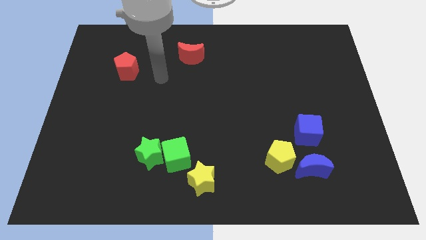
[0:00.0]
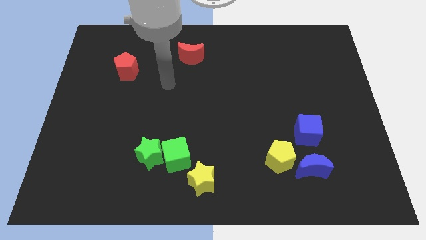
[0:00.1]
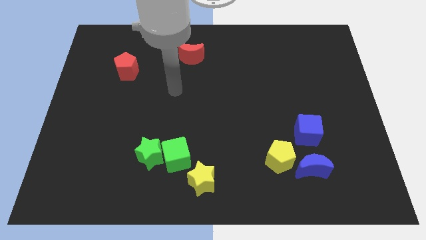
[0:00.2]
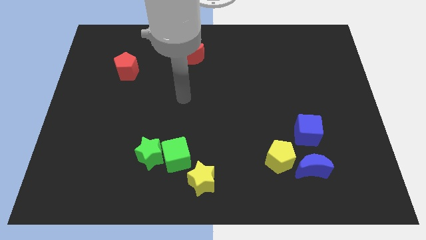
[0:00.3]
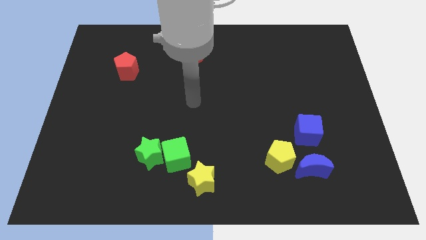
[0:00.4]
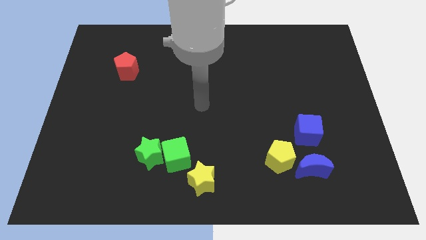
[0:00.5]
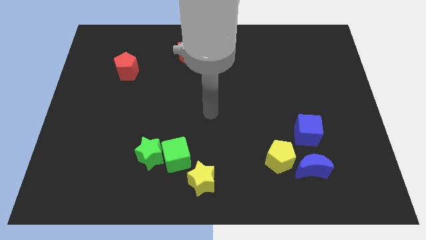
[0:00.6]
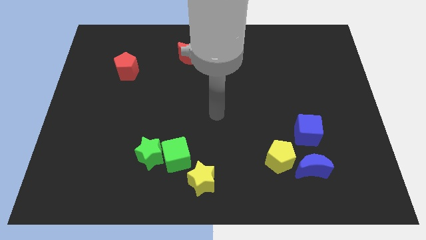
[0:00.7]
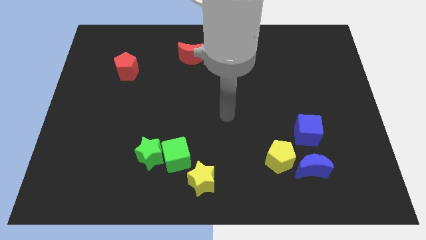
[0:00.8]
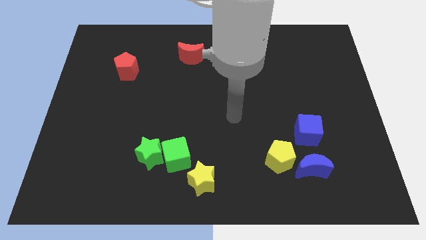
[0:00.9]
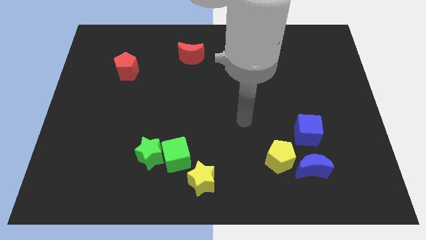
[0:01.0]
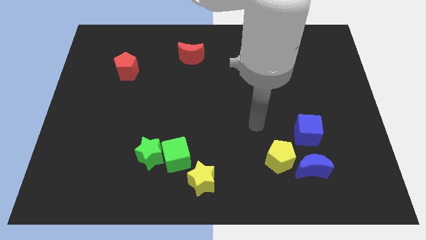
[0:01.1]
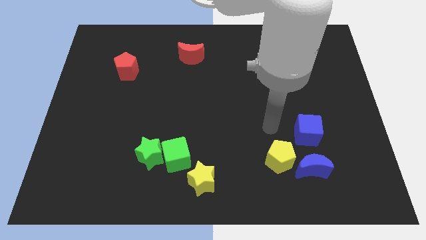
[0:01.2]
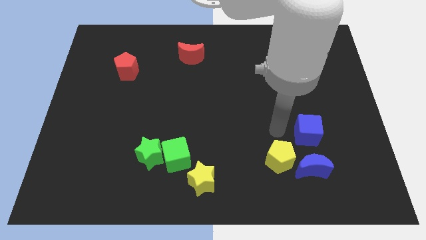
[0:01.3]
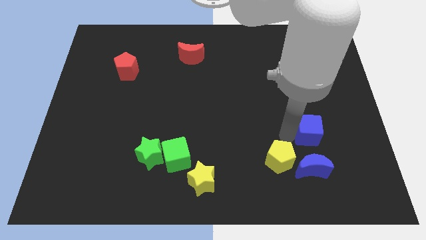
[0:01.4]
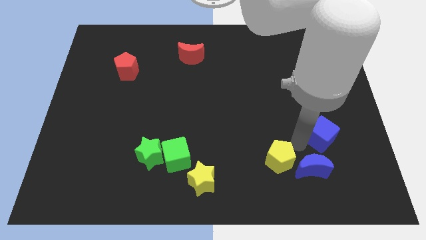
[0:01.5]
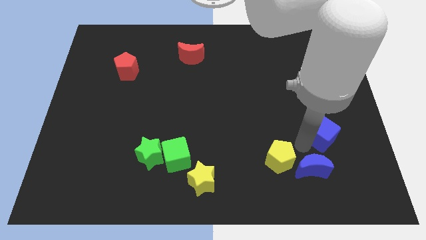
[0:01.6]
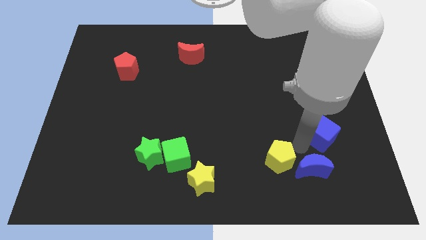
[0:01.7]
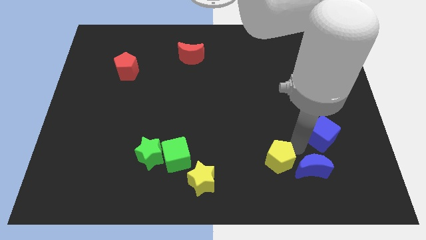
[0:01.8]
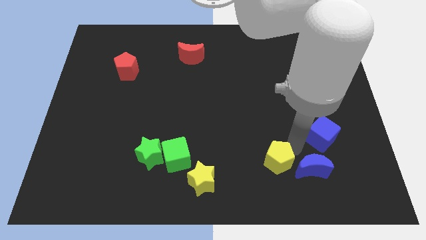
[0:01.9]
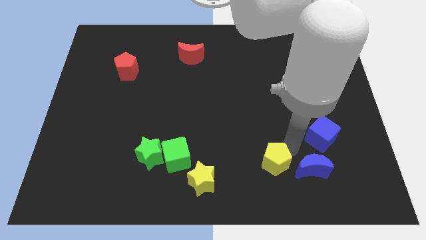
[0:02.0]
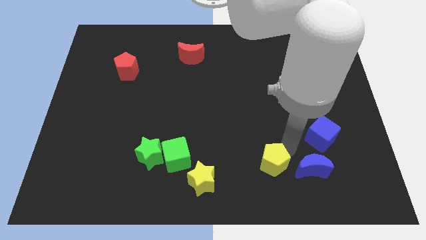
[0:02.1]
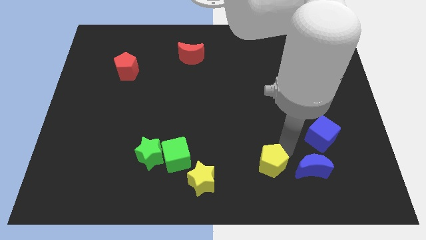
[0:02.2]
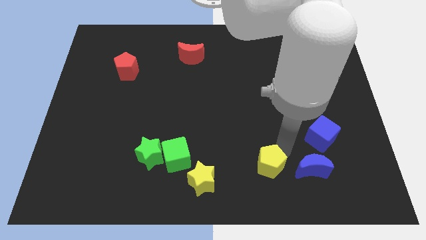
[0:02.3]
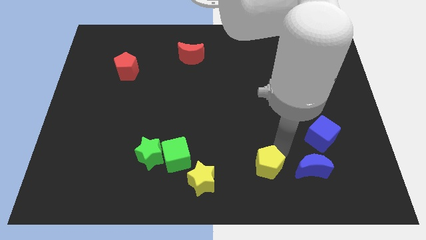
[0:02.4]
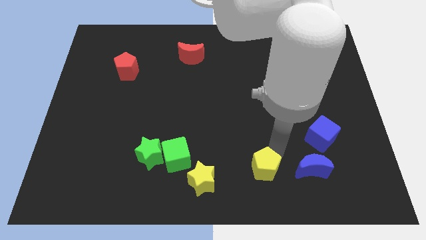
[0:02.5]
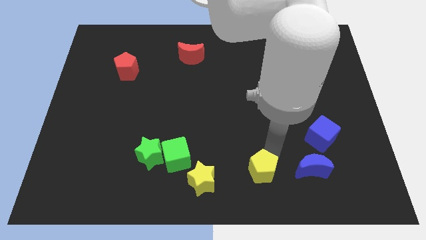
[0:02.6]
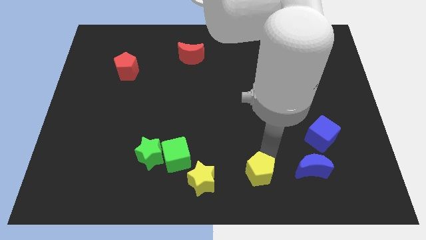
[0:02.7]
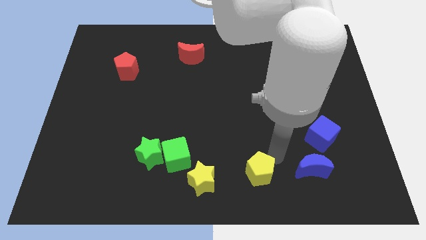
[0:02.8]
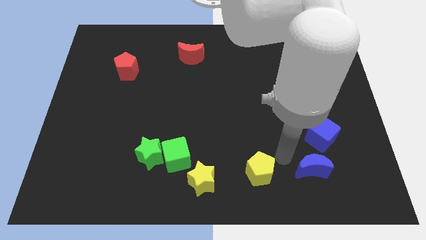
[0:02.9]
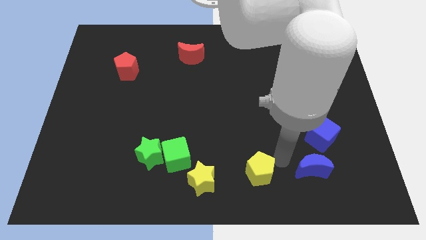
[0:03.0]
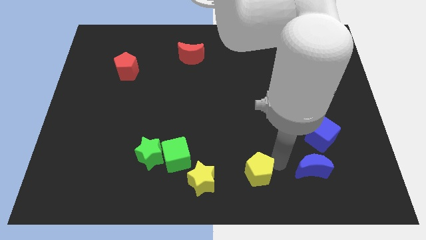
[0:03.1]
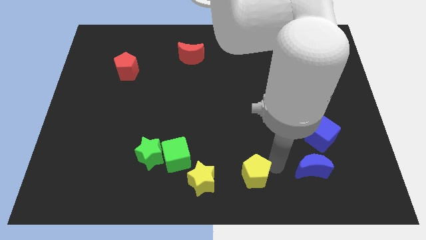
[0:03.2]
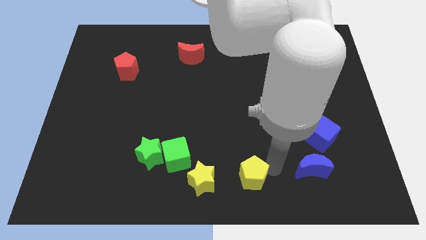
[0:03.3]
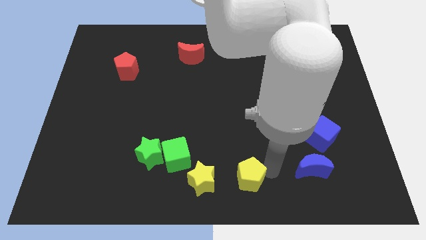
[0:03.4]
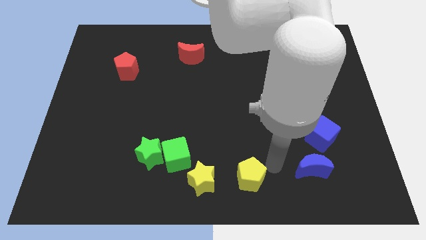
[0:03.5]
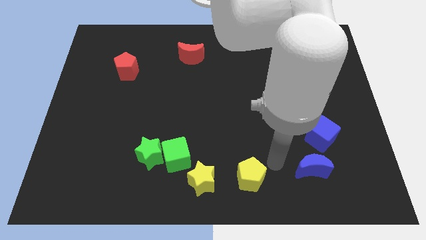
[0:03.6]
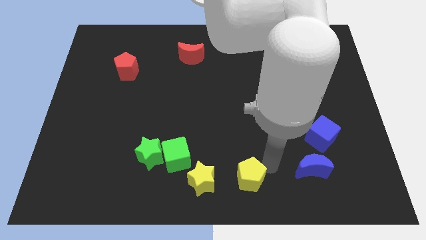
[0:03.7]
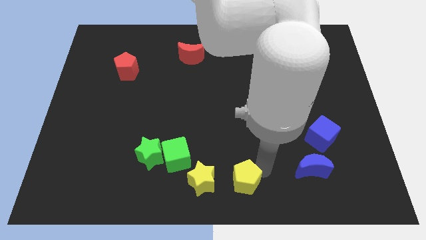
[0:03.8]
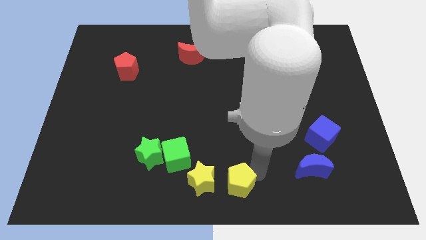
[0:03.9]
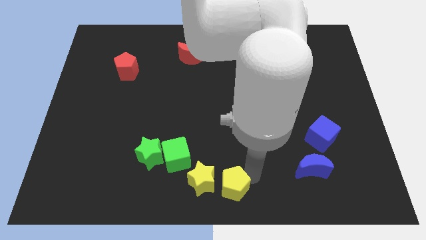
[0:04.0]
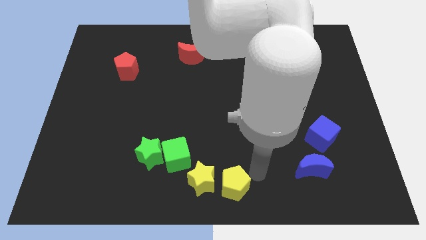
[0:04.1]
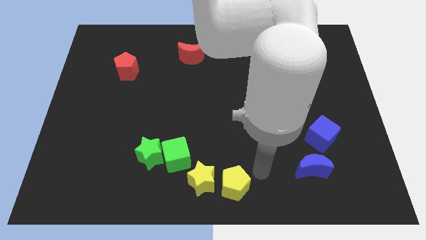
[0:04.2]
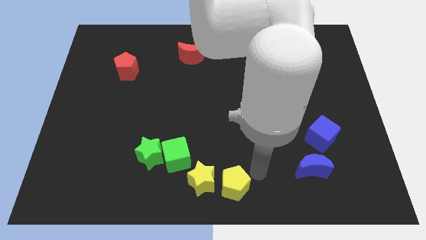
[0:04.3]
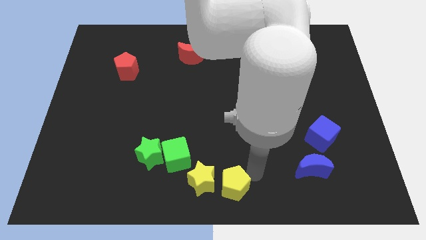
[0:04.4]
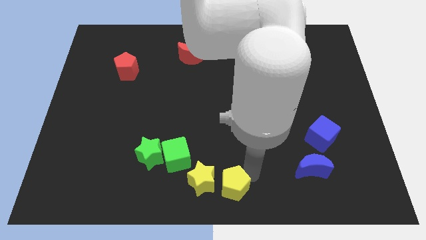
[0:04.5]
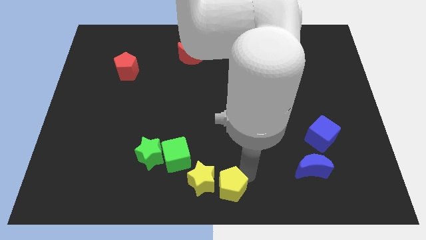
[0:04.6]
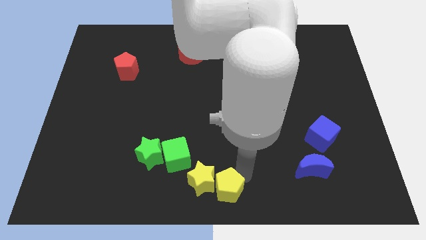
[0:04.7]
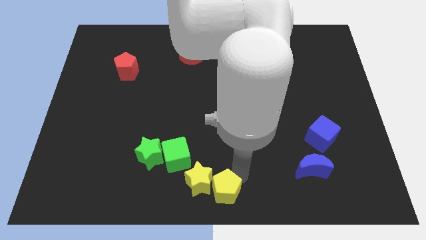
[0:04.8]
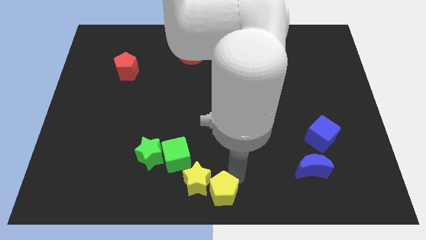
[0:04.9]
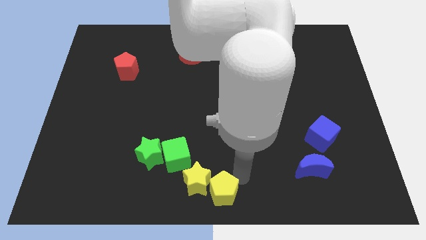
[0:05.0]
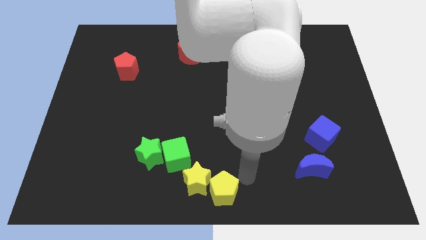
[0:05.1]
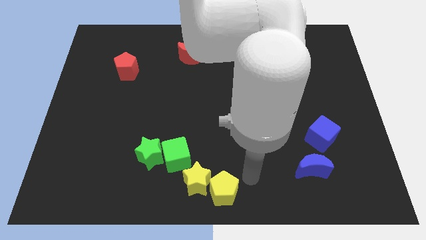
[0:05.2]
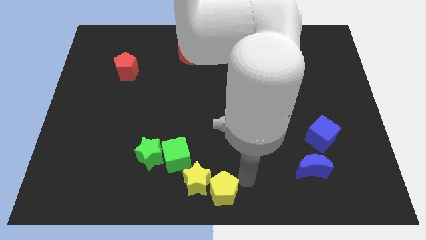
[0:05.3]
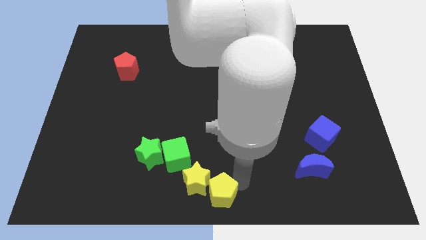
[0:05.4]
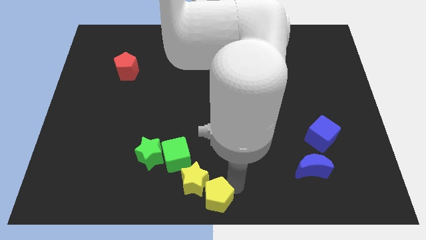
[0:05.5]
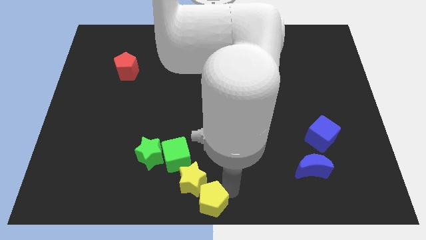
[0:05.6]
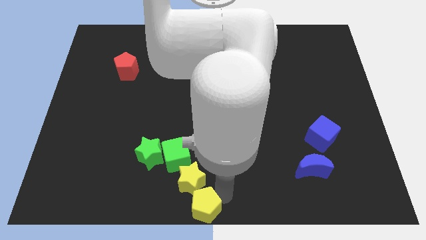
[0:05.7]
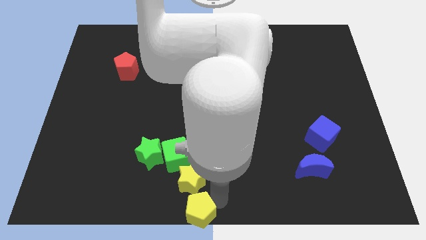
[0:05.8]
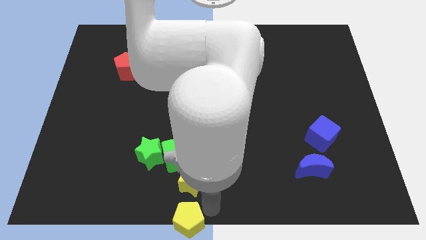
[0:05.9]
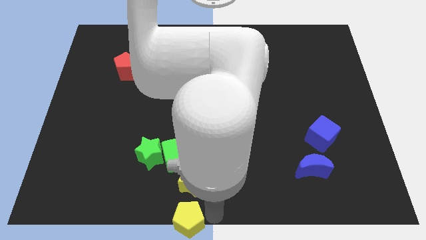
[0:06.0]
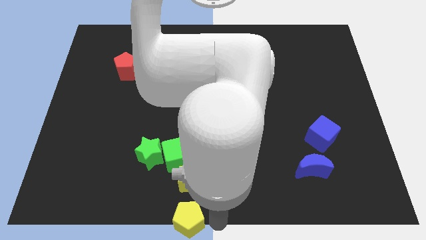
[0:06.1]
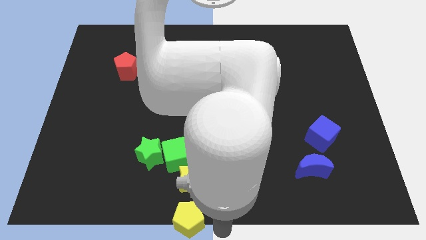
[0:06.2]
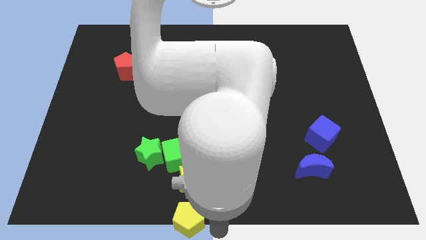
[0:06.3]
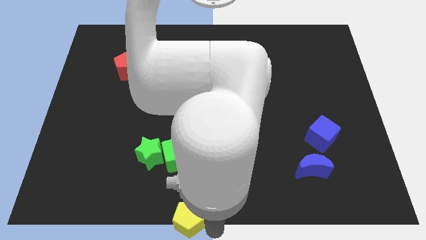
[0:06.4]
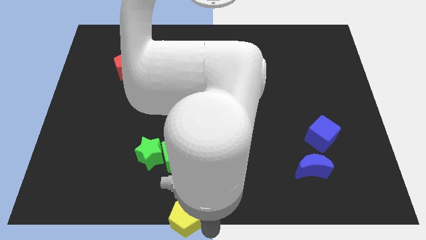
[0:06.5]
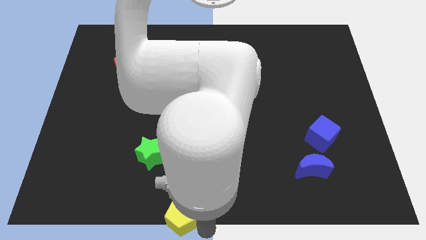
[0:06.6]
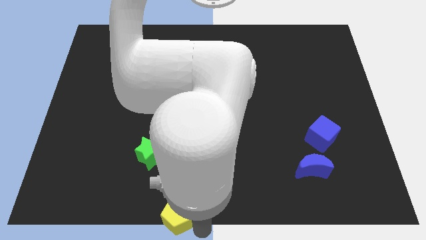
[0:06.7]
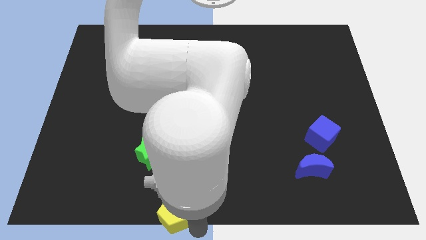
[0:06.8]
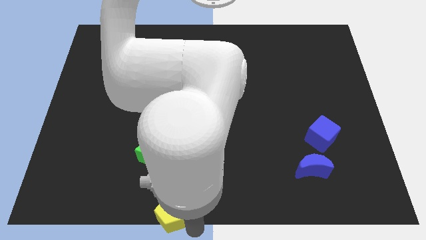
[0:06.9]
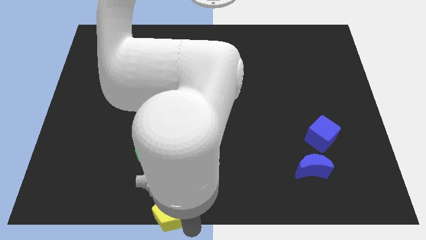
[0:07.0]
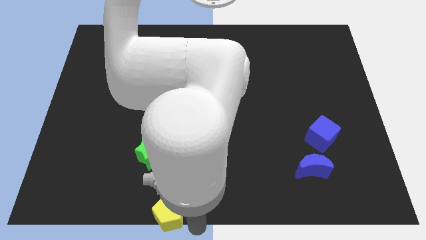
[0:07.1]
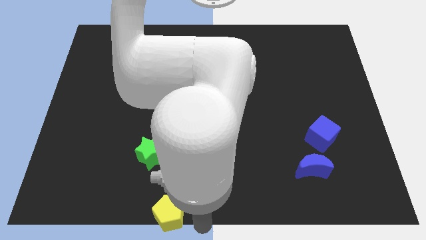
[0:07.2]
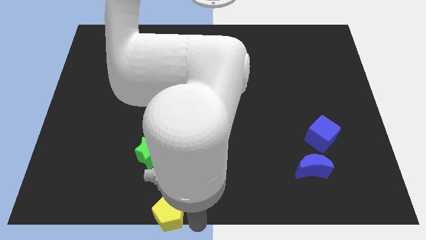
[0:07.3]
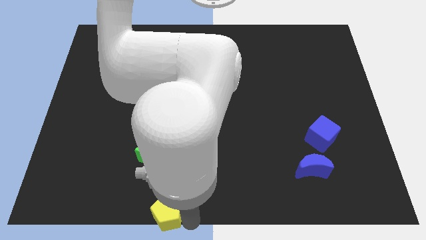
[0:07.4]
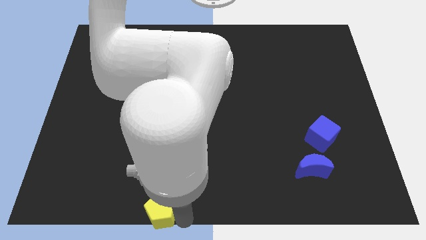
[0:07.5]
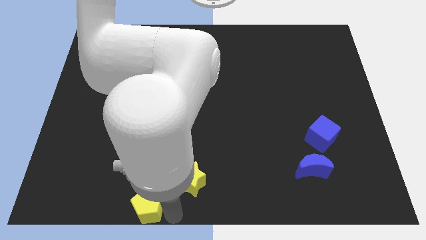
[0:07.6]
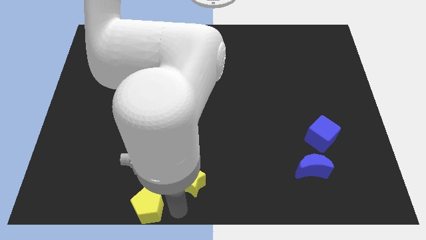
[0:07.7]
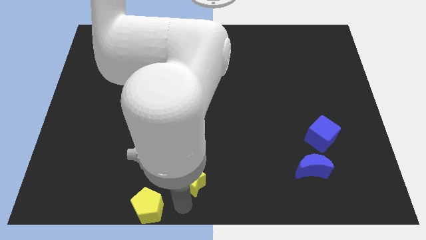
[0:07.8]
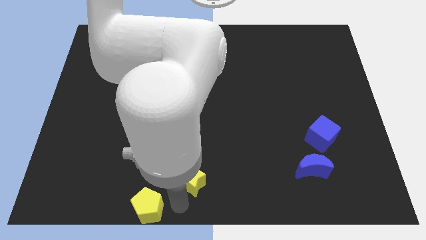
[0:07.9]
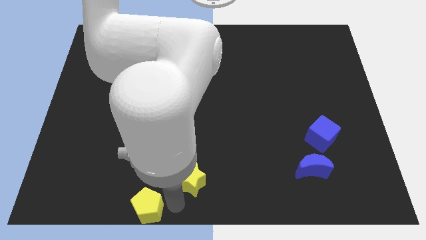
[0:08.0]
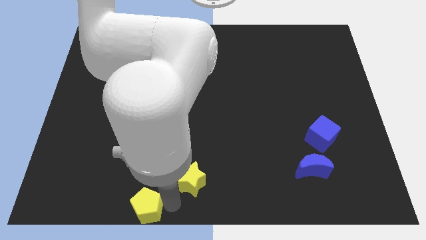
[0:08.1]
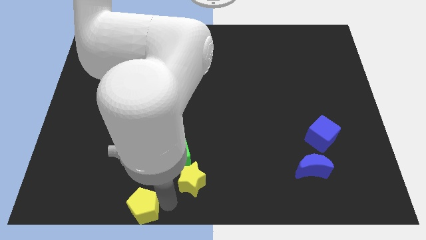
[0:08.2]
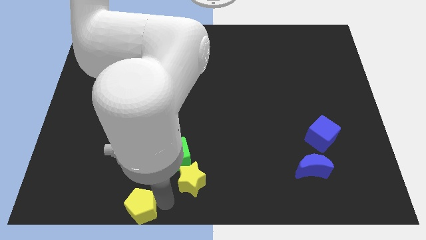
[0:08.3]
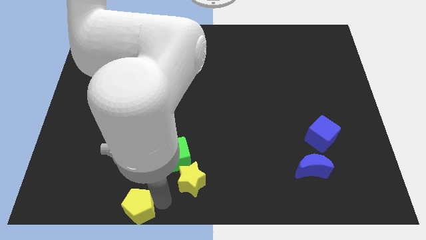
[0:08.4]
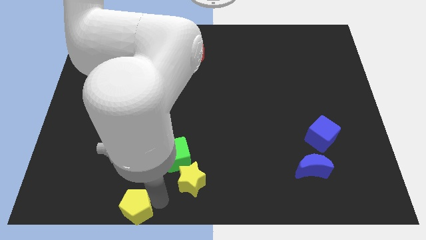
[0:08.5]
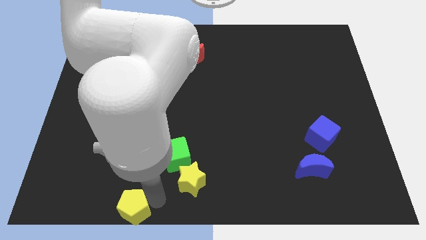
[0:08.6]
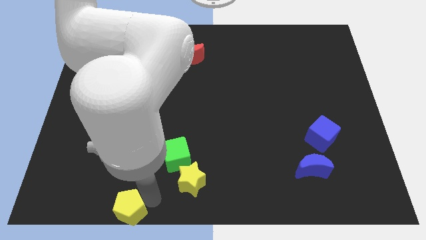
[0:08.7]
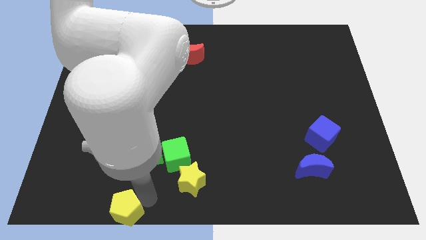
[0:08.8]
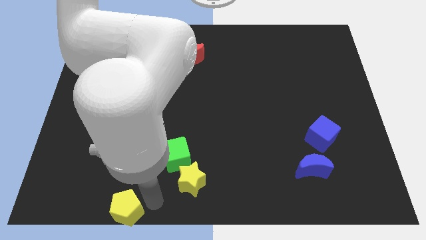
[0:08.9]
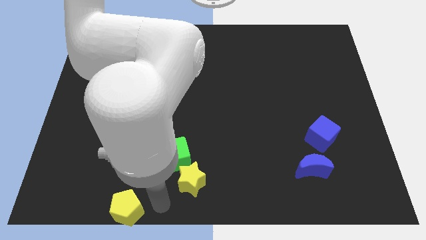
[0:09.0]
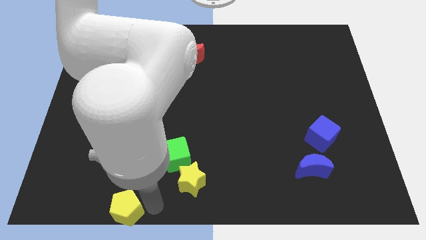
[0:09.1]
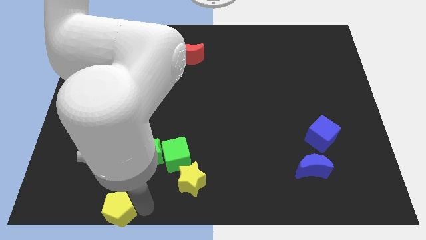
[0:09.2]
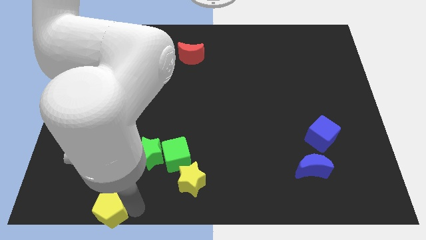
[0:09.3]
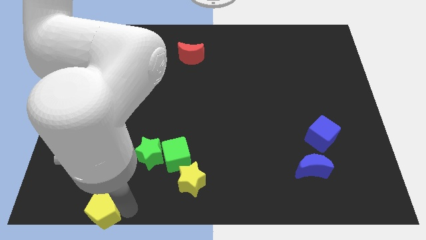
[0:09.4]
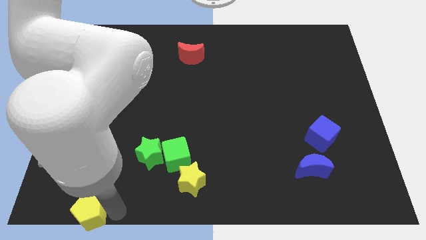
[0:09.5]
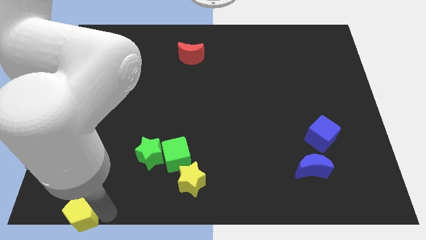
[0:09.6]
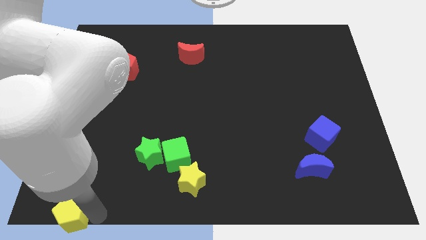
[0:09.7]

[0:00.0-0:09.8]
put the yellow pentagon to the bottom left of the board
